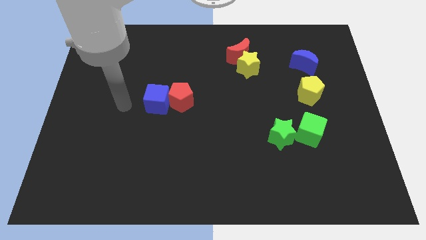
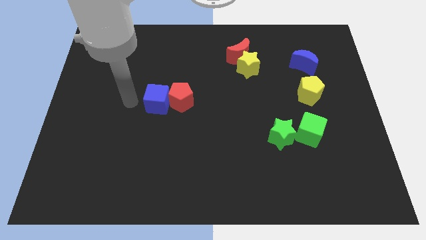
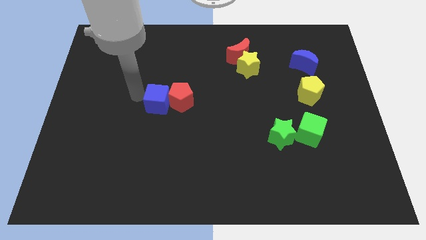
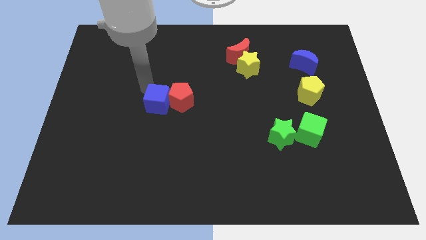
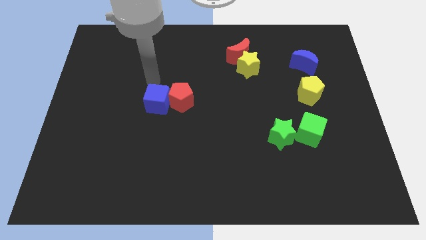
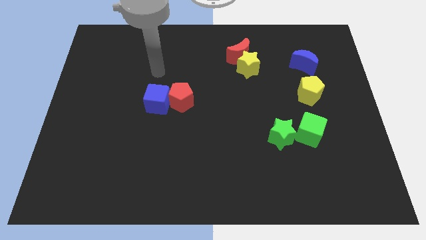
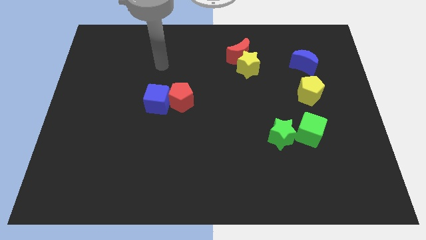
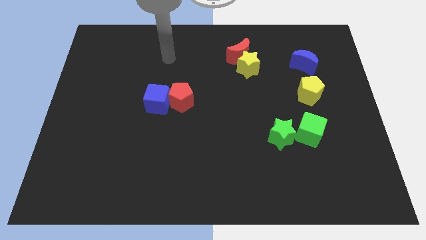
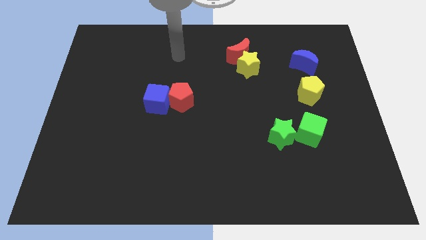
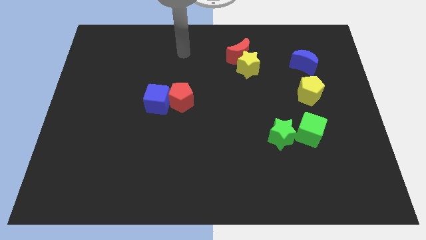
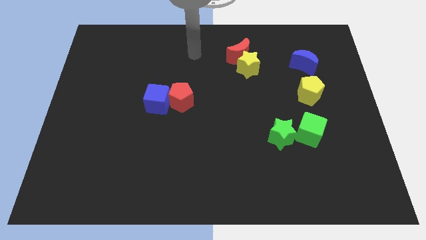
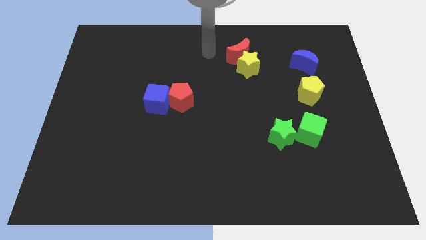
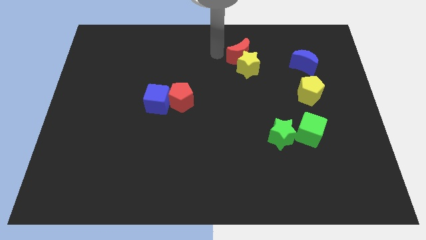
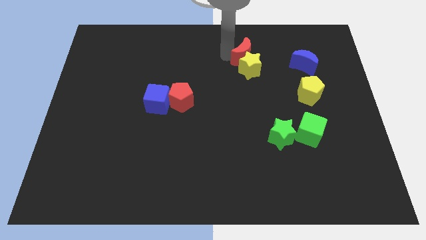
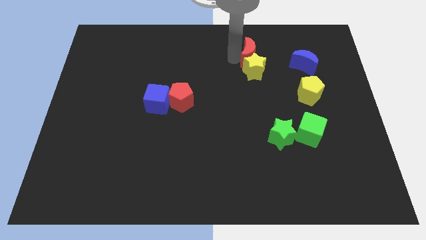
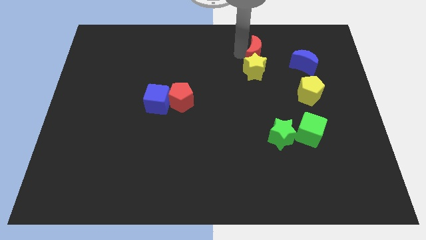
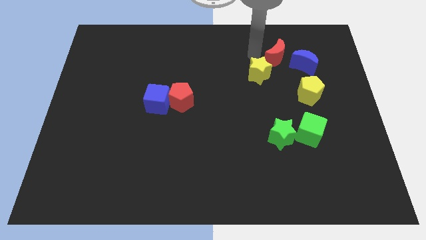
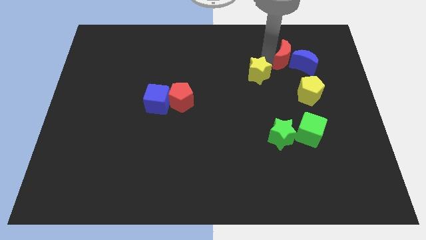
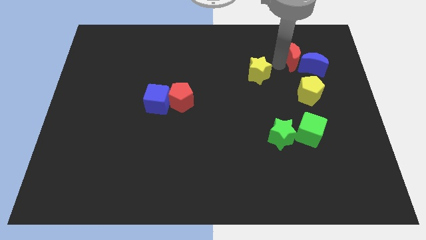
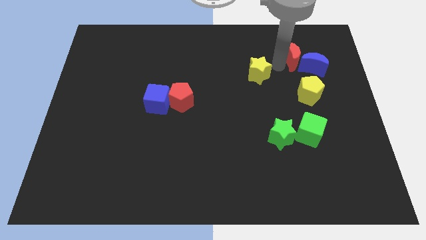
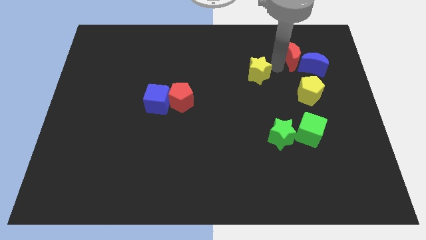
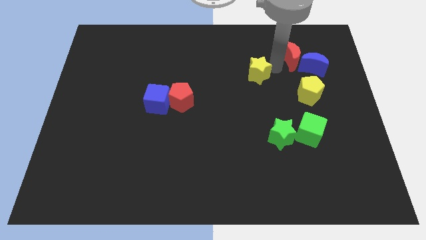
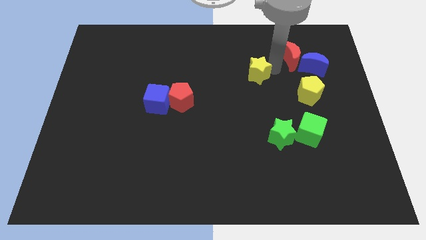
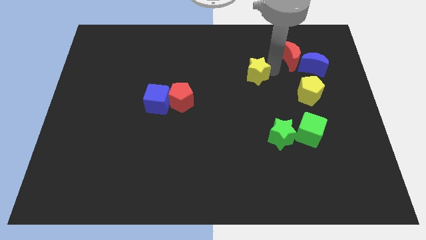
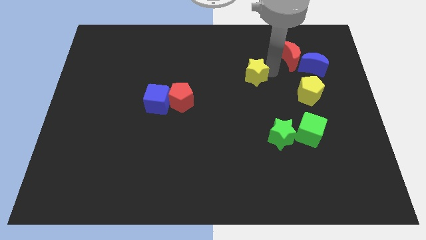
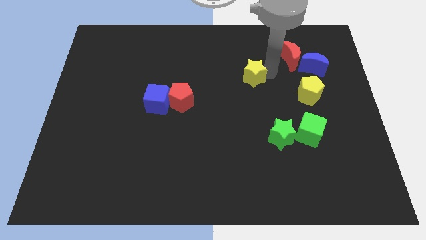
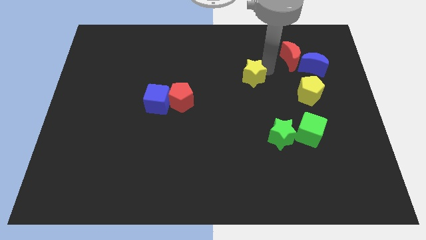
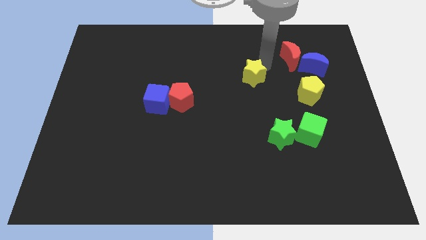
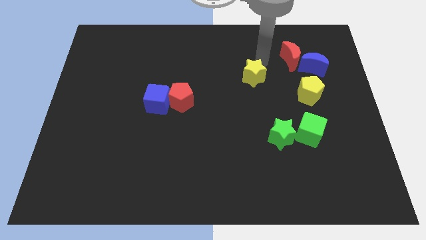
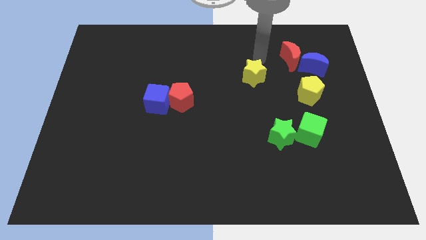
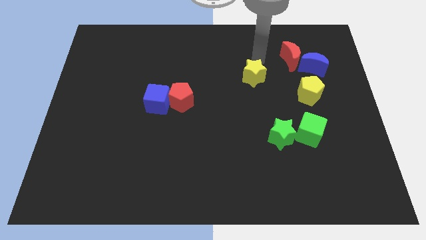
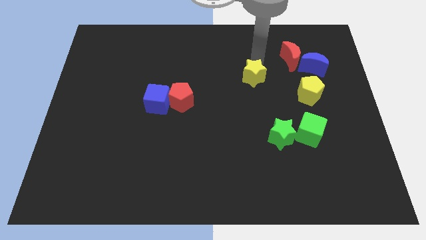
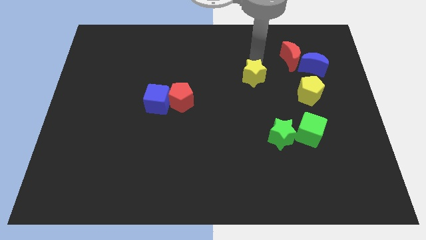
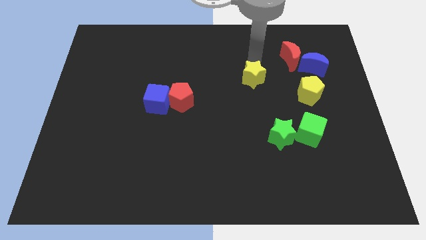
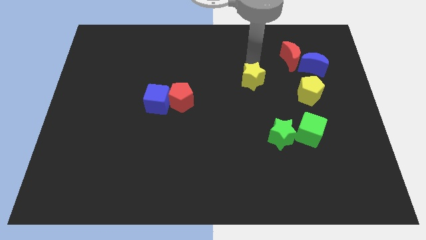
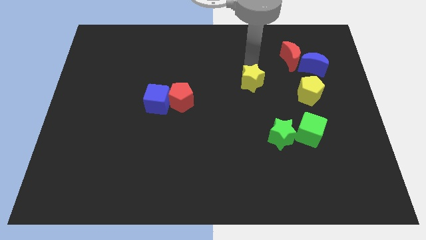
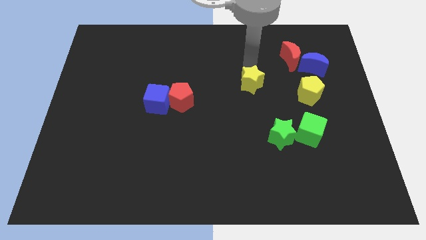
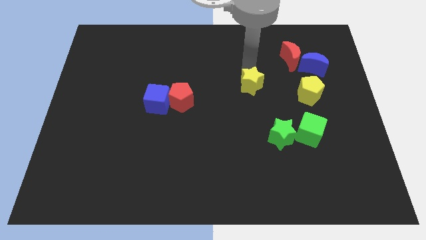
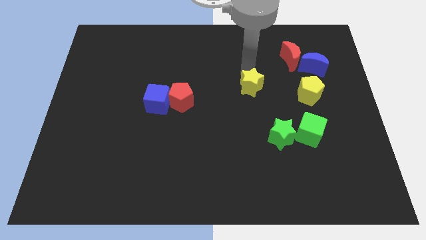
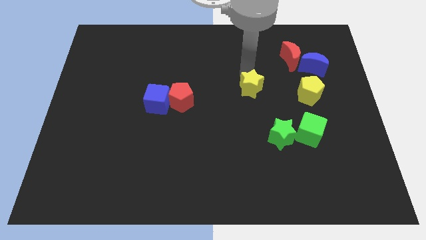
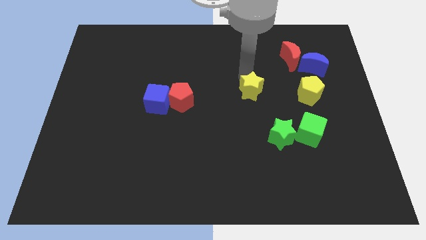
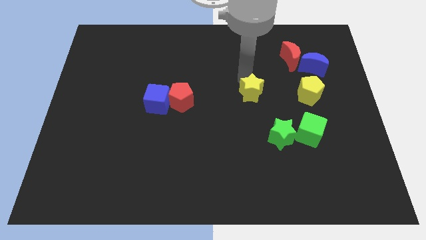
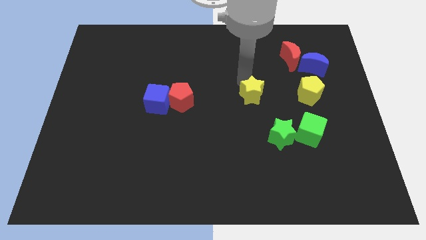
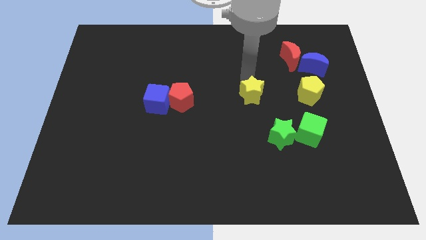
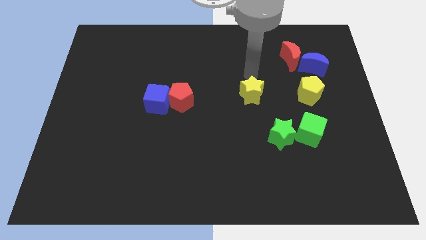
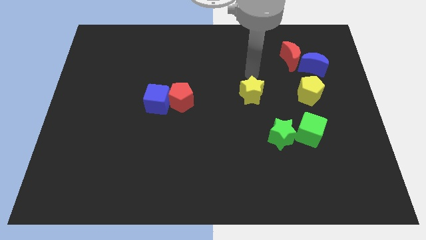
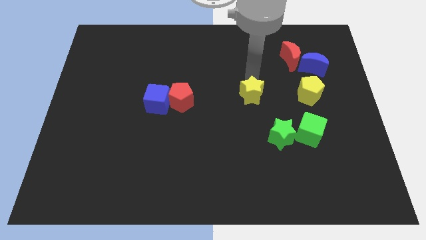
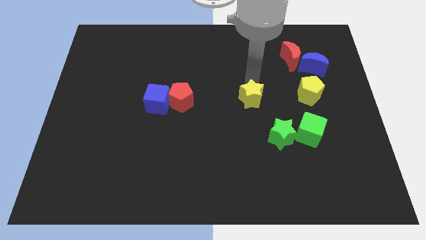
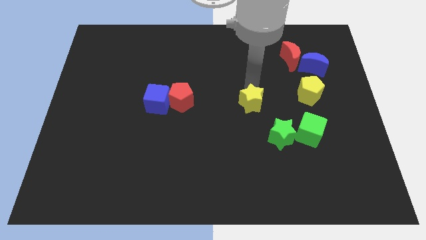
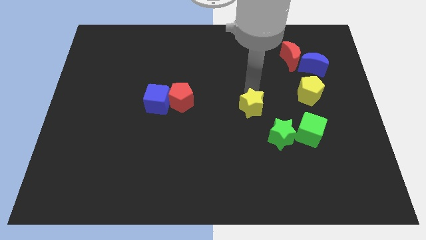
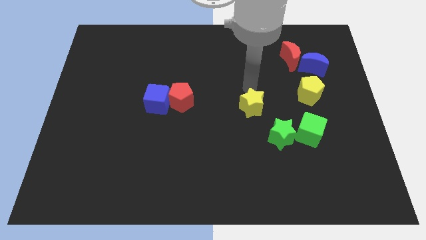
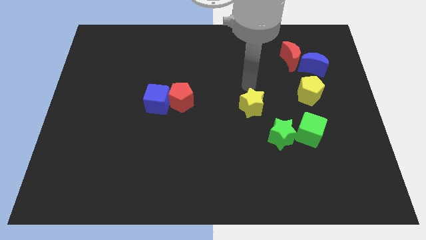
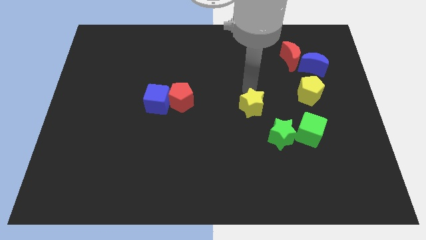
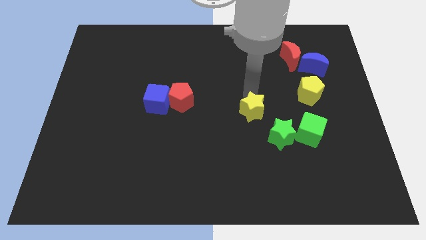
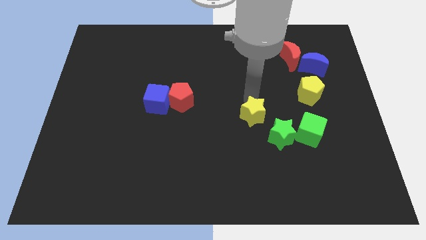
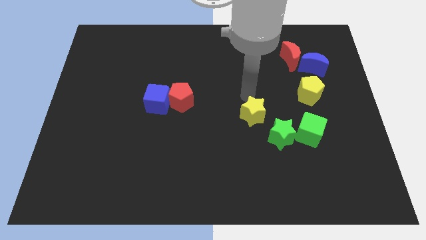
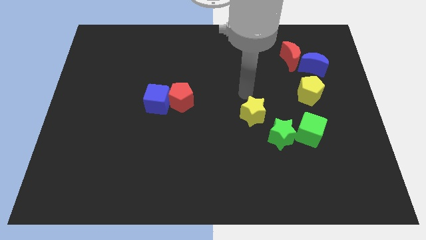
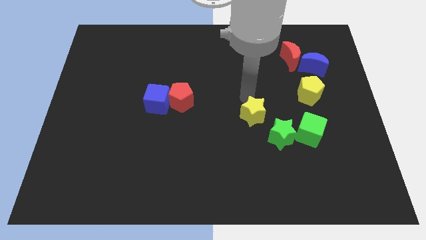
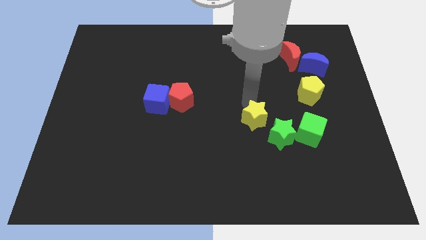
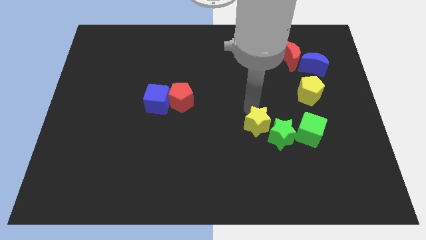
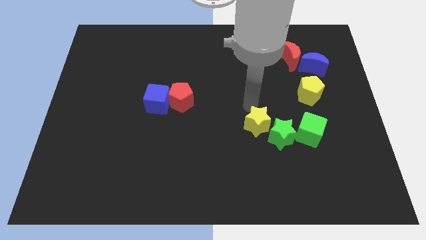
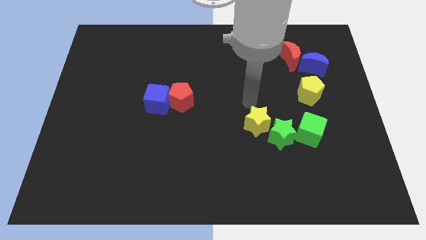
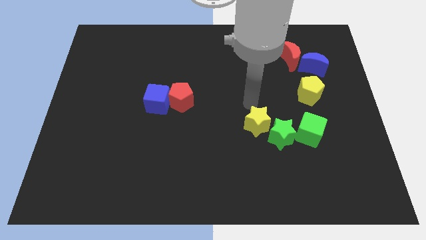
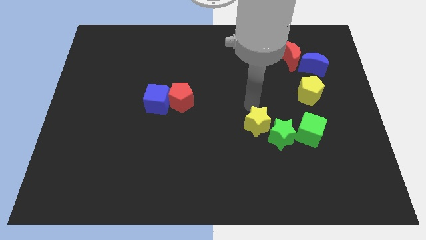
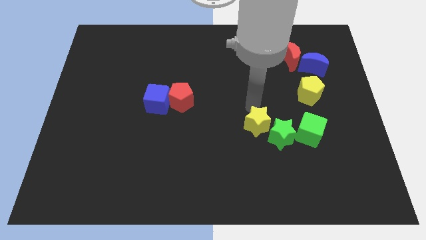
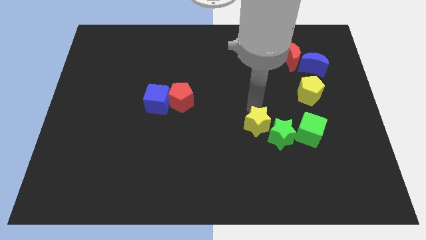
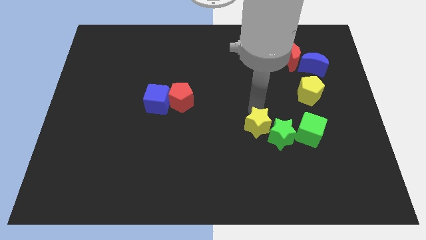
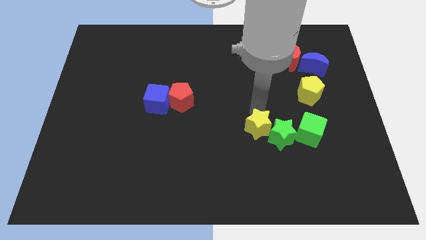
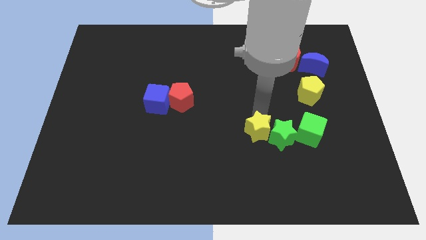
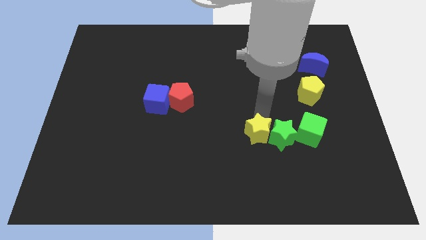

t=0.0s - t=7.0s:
put the yellow star to the bottom left of the green star

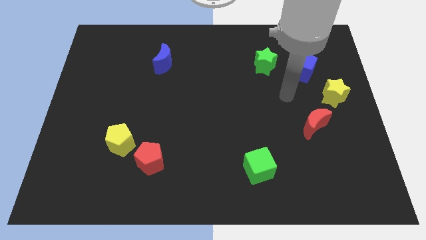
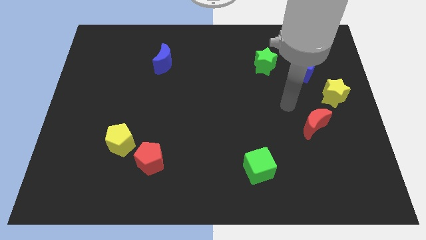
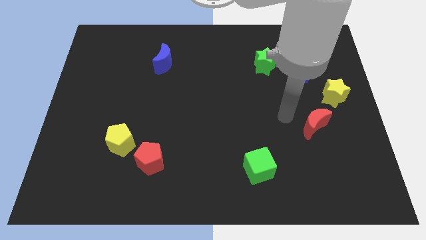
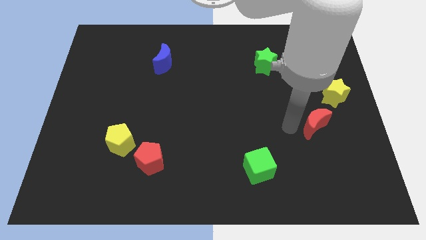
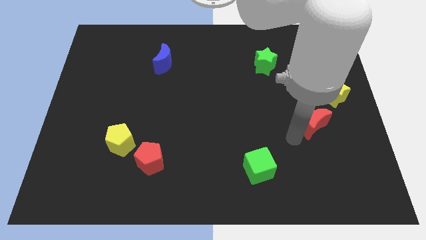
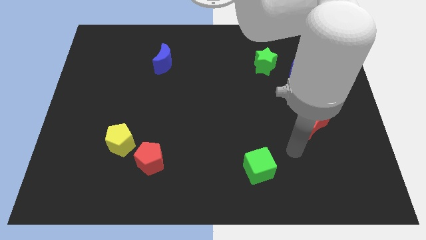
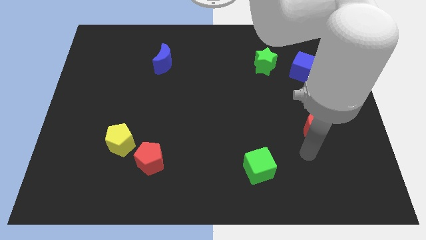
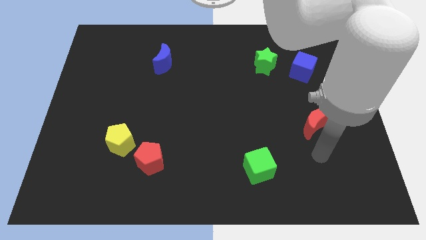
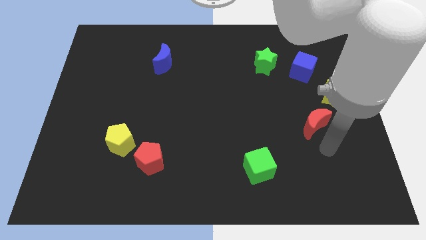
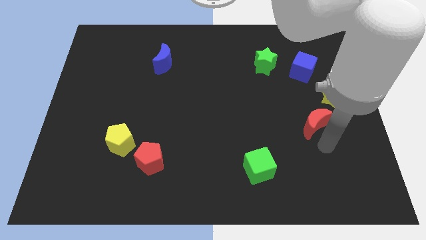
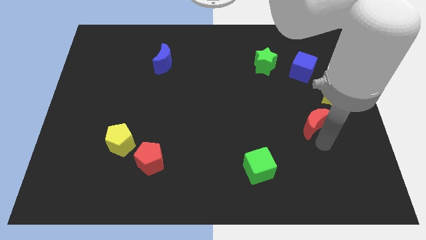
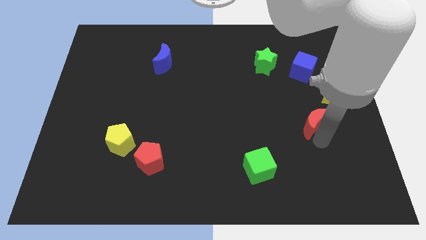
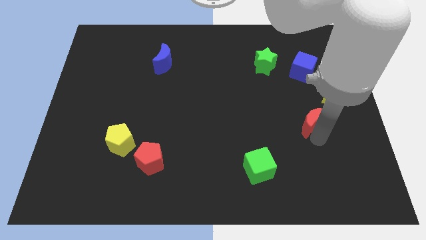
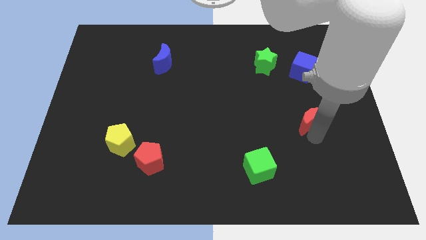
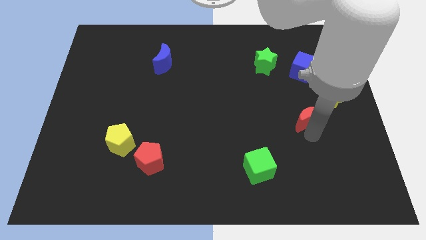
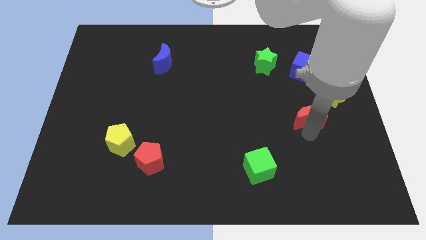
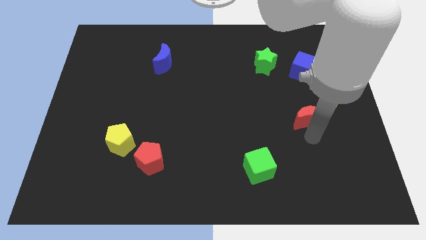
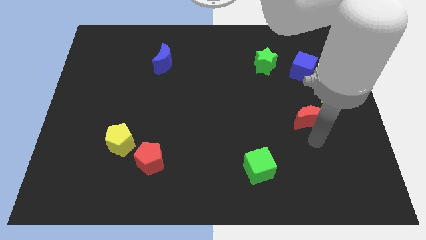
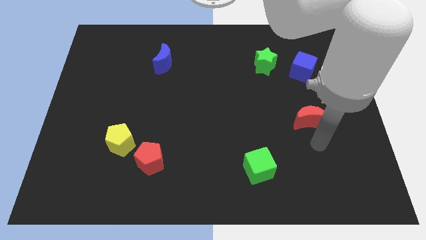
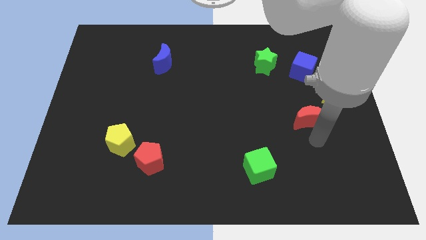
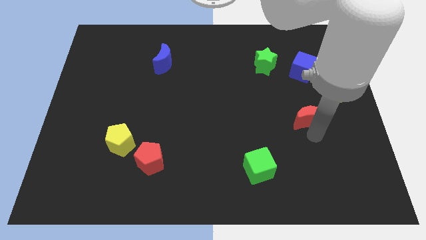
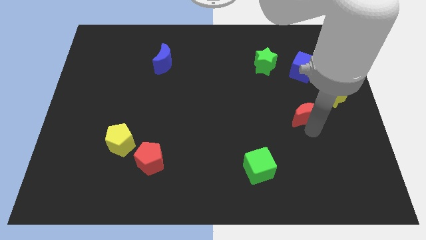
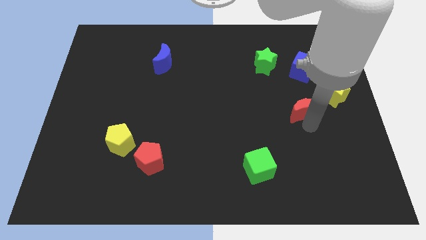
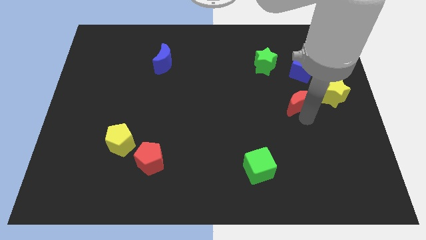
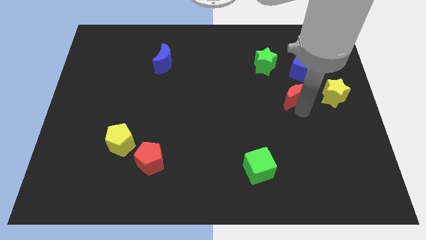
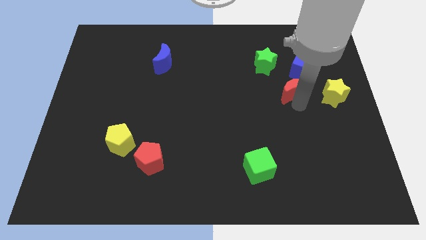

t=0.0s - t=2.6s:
slide the red moon to the bottom right side of the green star
